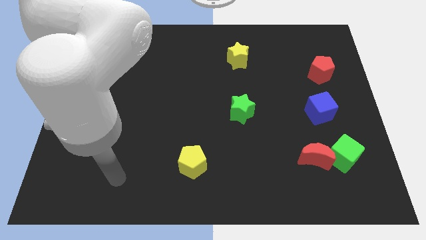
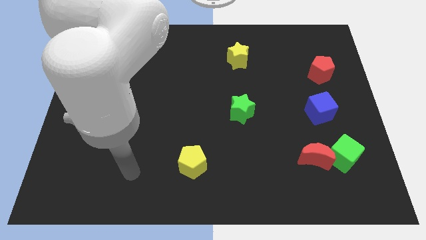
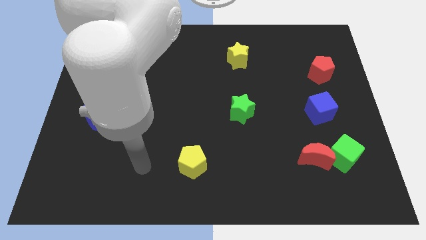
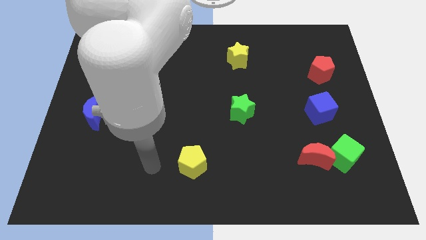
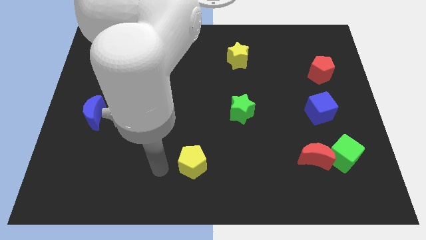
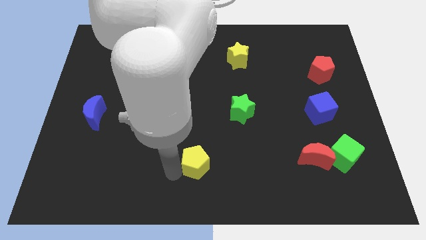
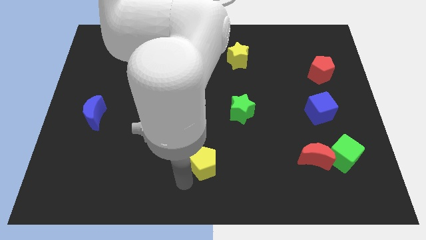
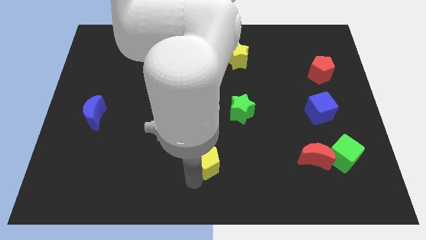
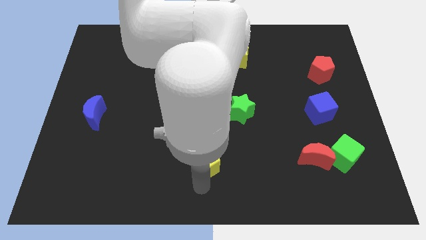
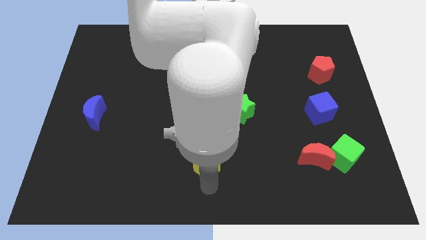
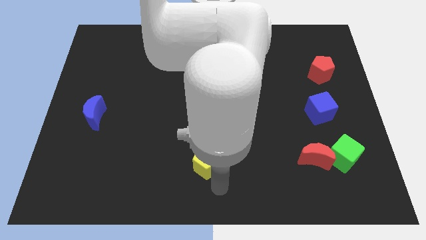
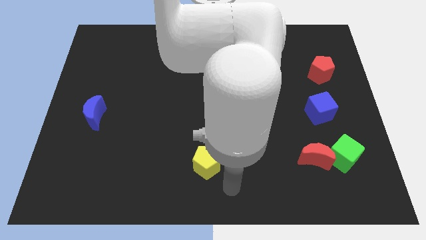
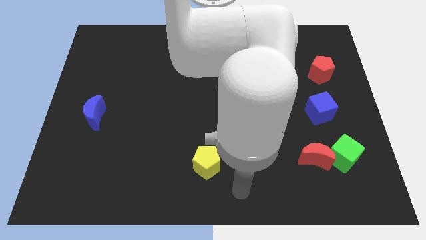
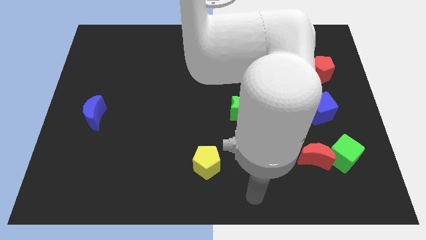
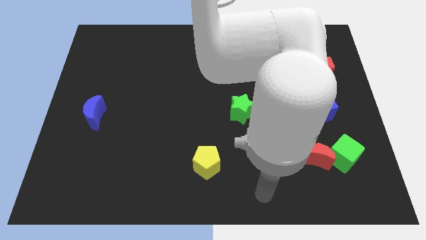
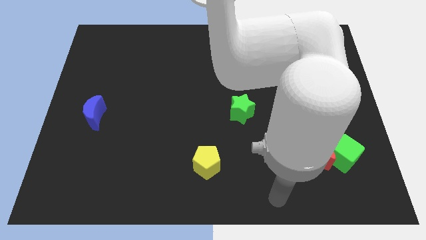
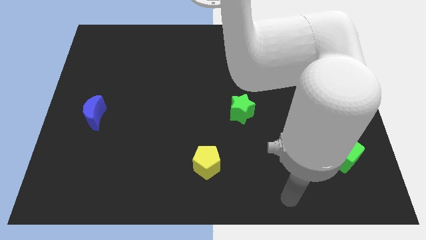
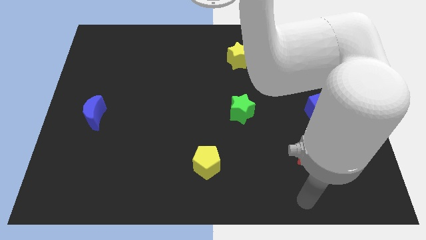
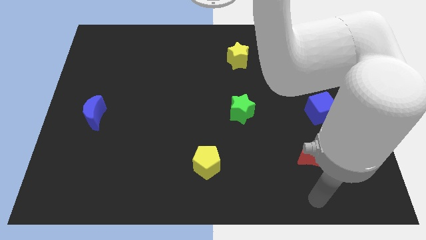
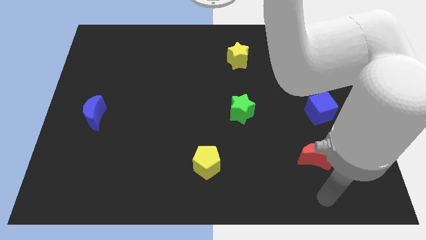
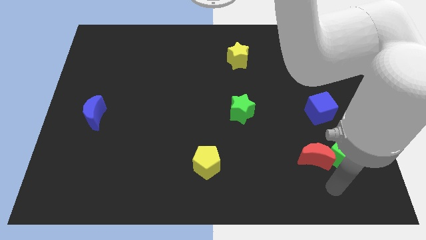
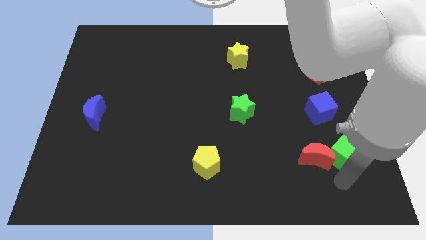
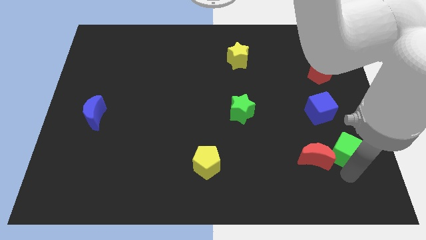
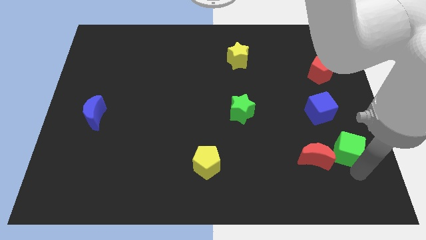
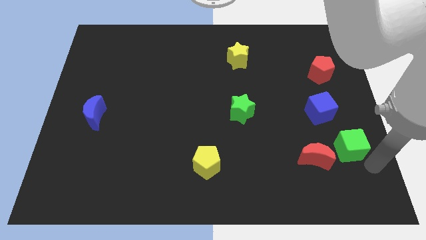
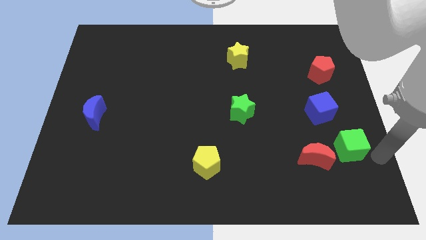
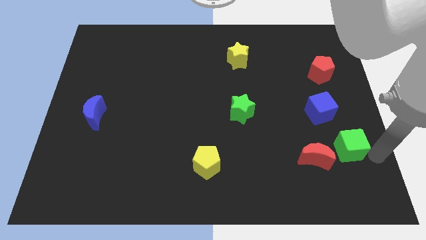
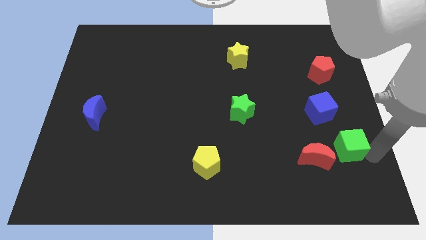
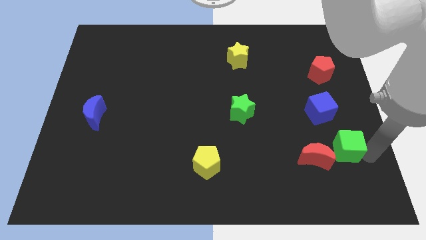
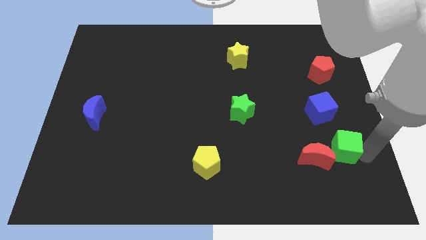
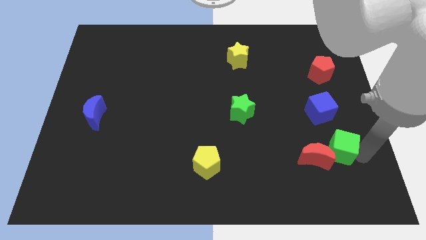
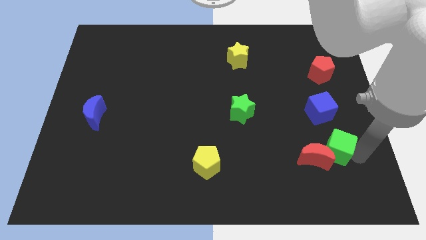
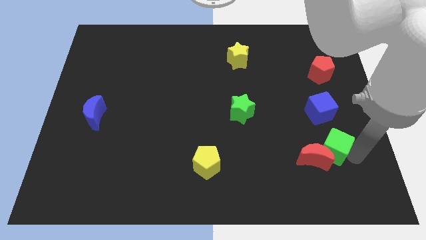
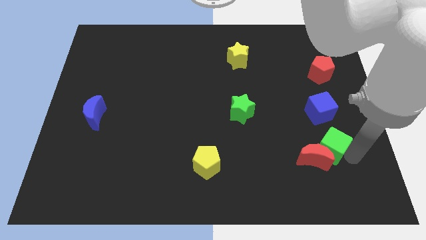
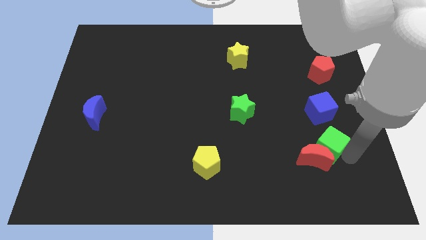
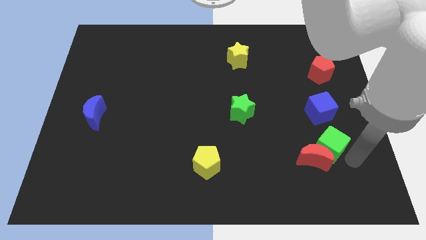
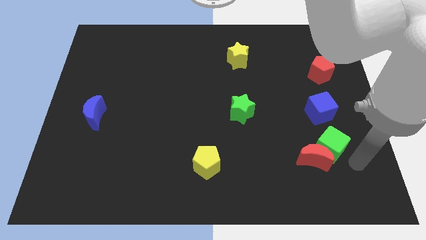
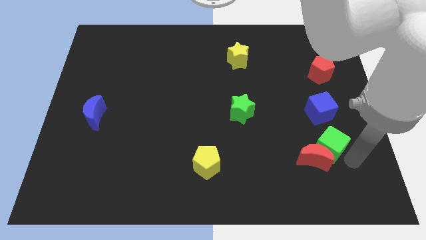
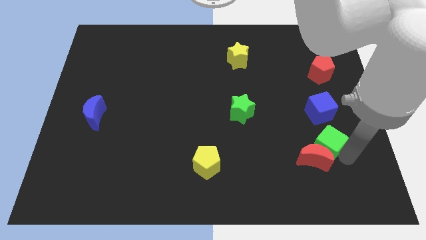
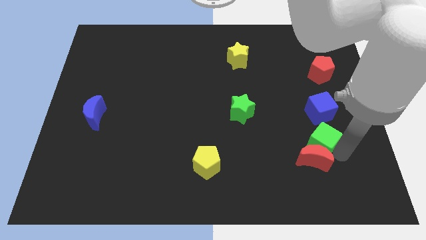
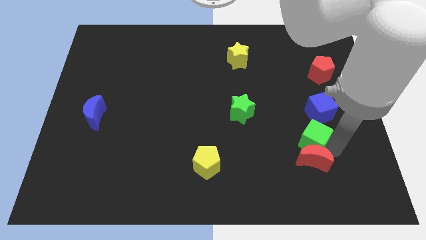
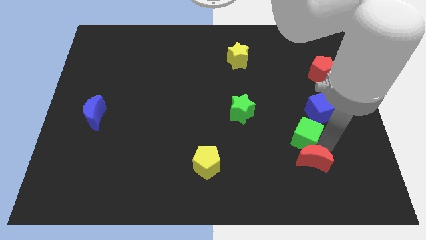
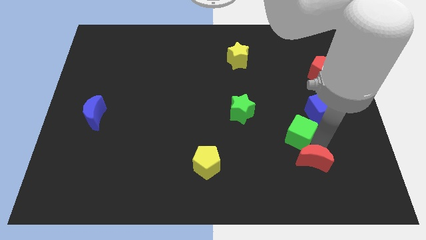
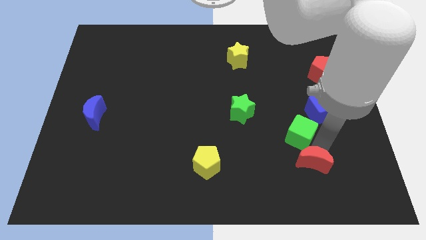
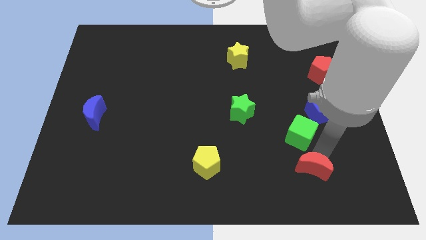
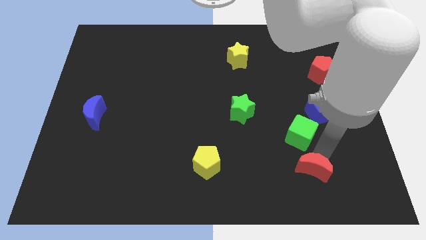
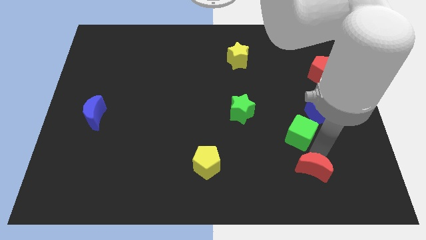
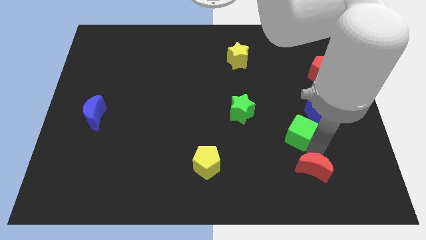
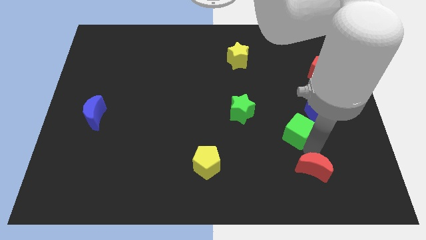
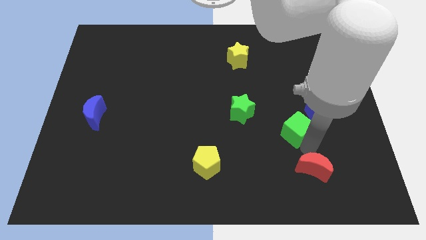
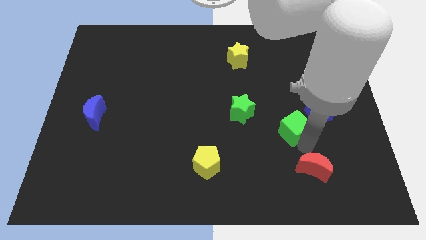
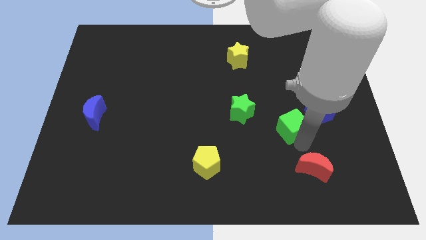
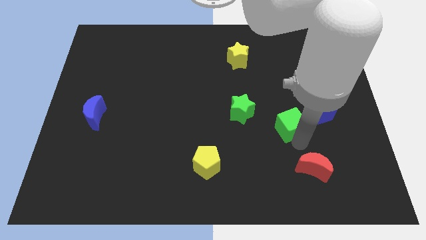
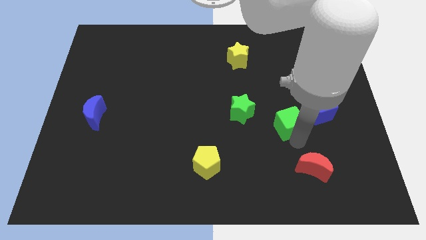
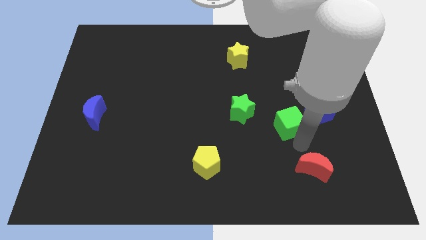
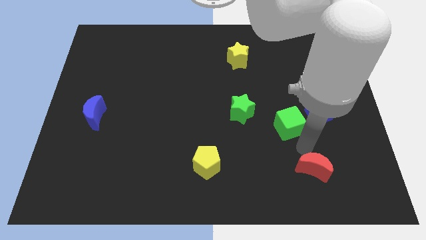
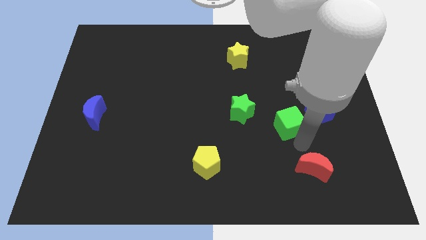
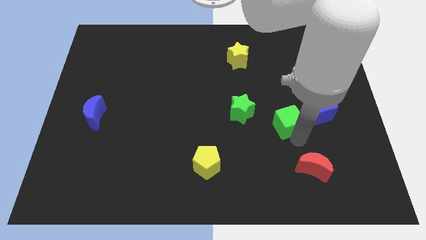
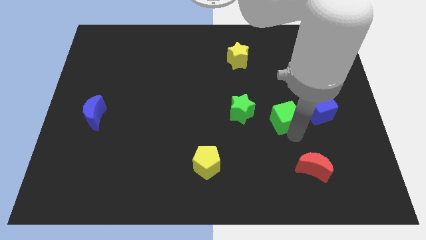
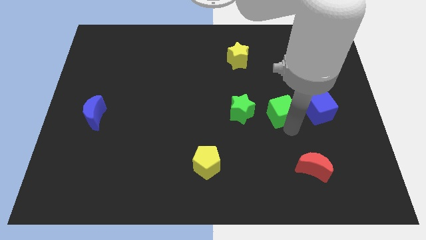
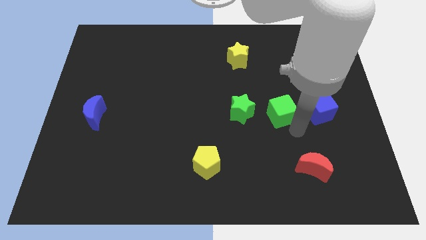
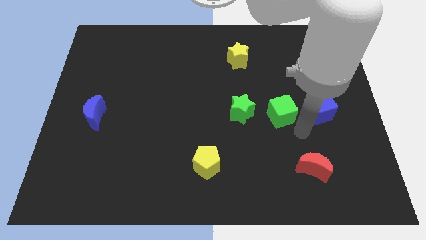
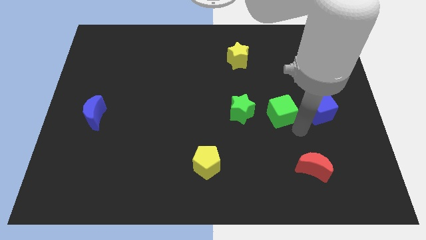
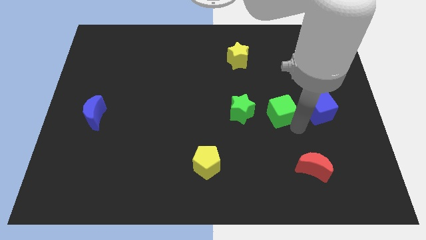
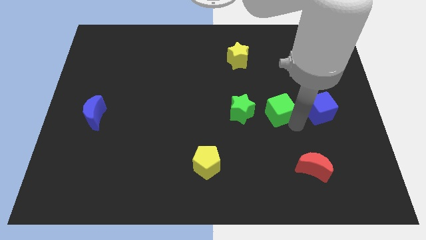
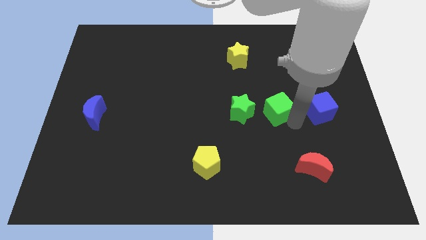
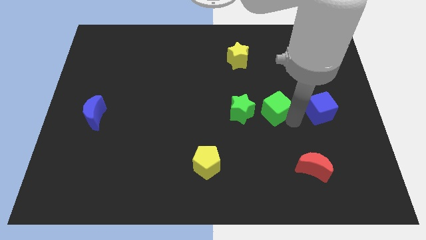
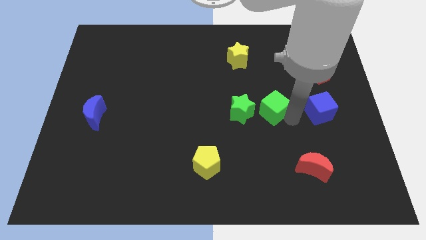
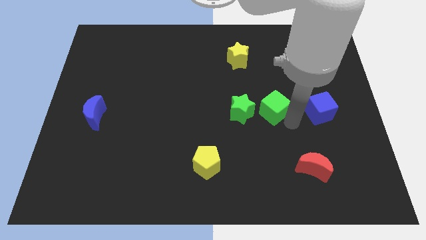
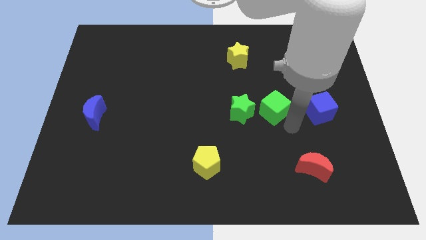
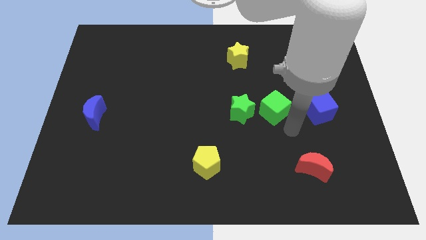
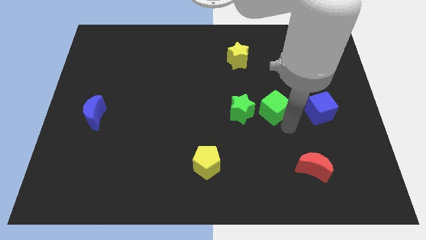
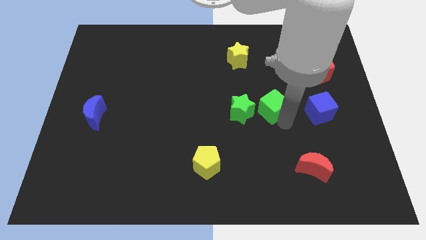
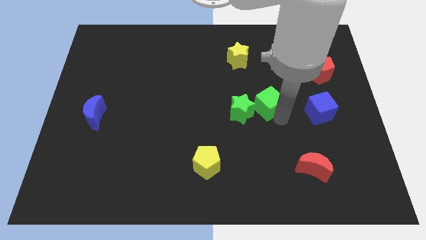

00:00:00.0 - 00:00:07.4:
move the green cube diagonally upwards and left

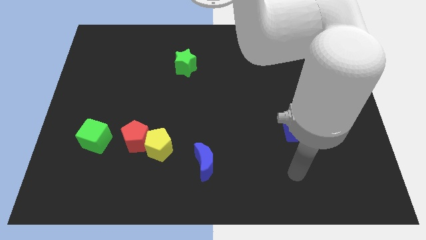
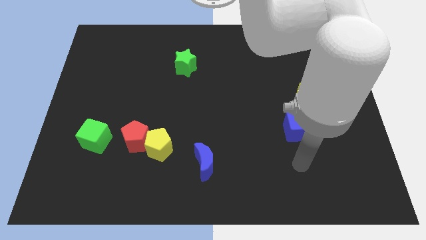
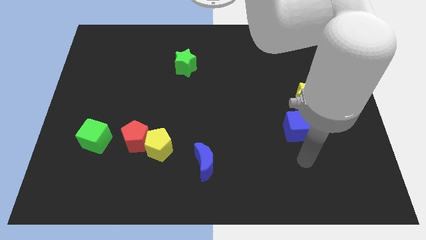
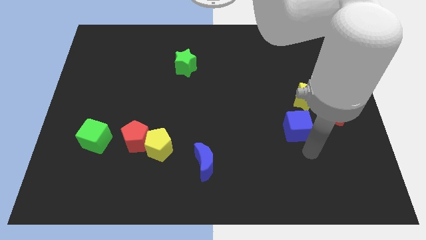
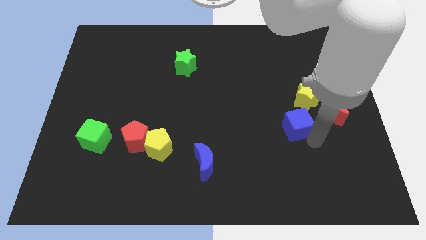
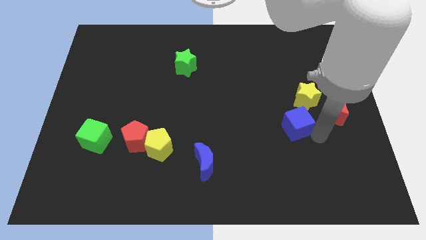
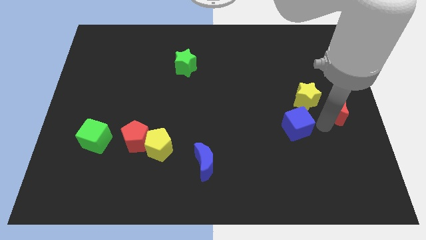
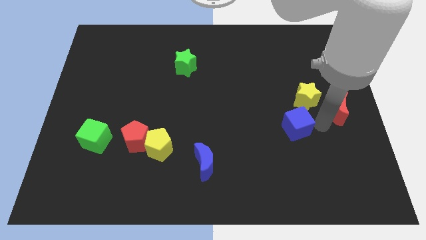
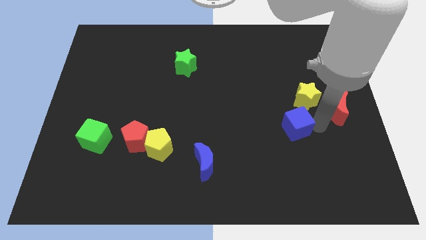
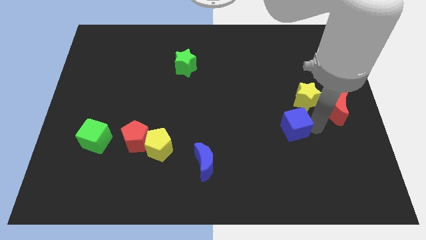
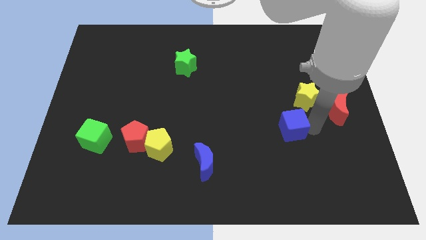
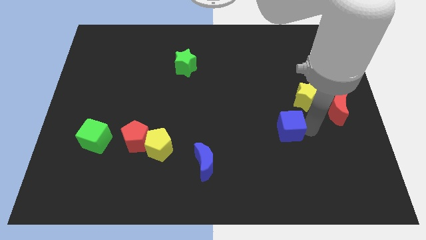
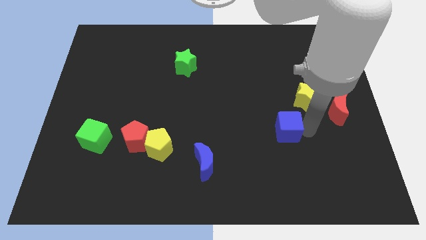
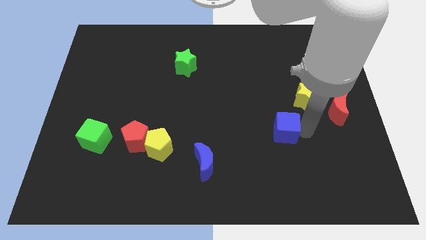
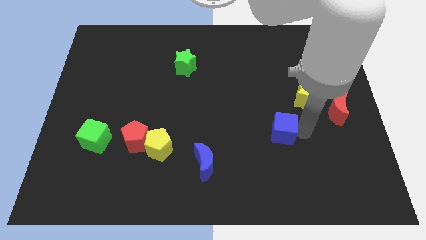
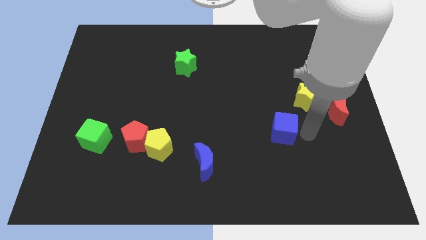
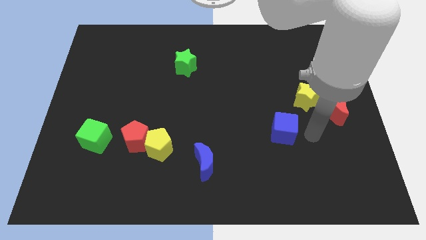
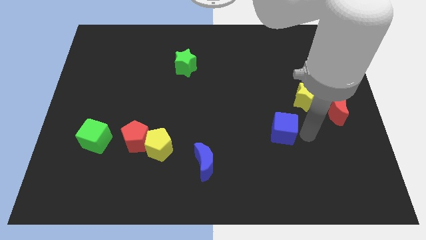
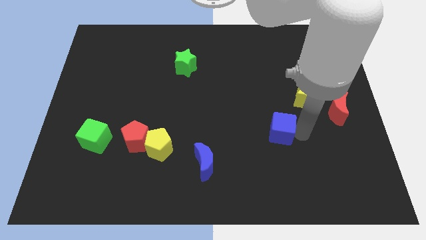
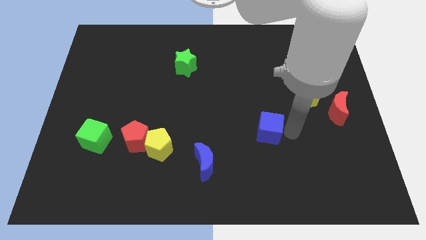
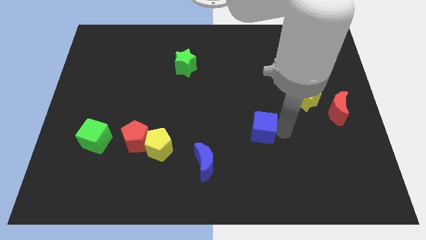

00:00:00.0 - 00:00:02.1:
slide the blue cube a little left
